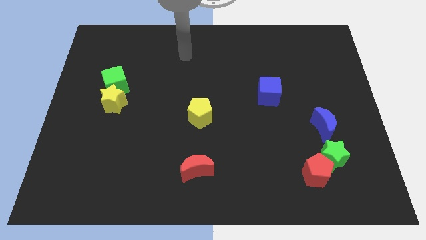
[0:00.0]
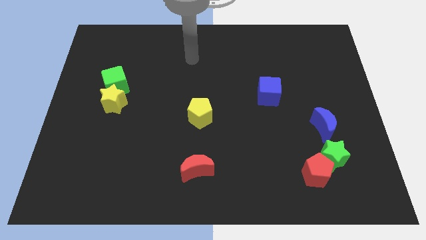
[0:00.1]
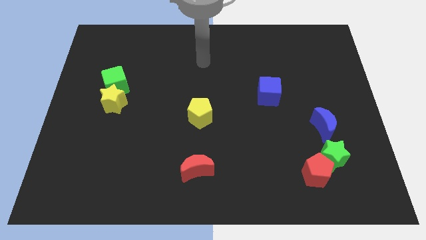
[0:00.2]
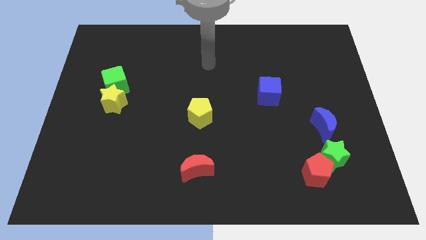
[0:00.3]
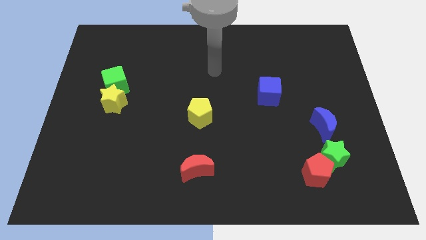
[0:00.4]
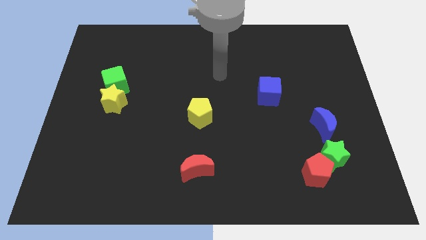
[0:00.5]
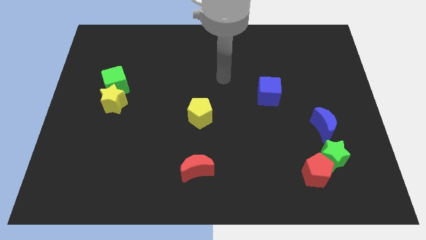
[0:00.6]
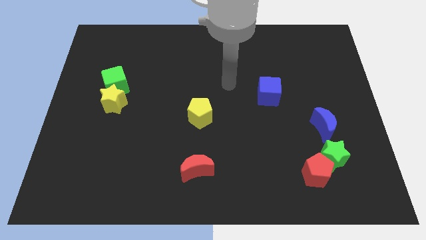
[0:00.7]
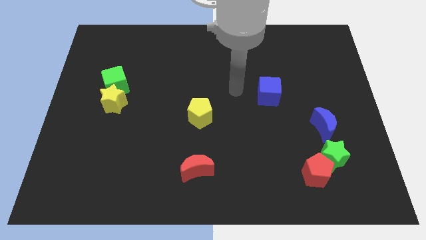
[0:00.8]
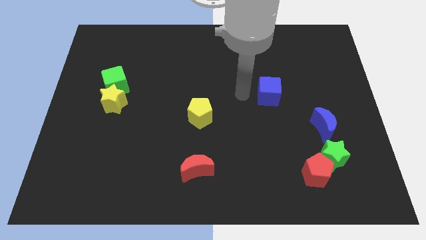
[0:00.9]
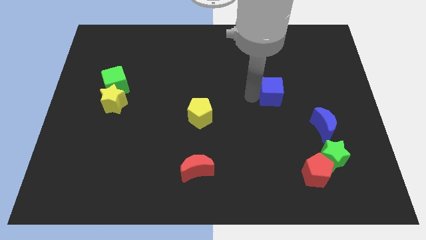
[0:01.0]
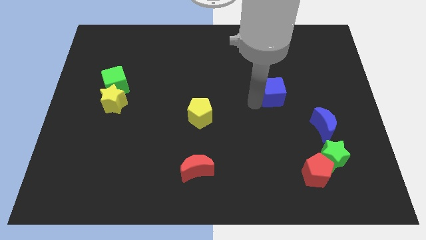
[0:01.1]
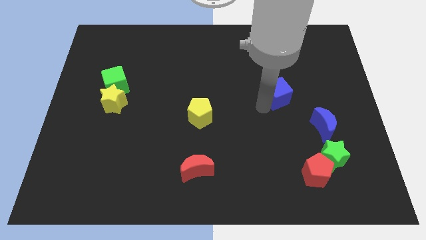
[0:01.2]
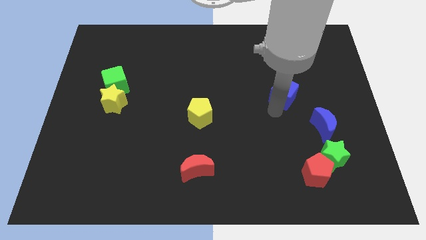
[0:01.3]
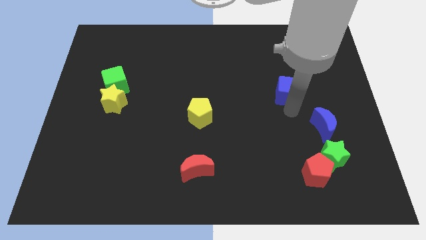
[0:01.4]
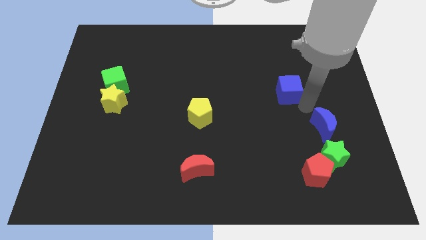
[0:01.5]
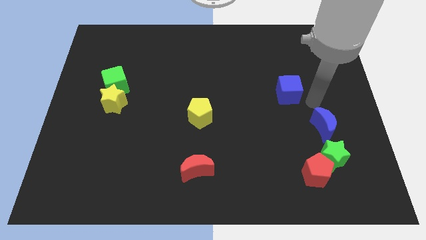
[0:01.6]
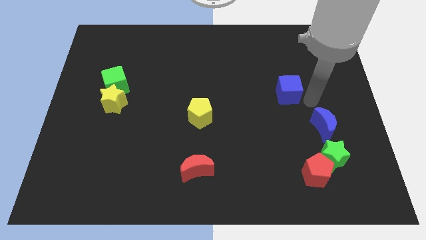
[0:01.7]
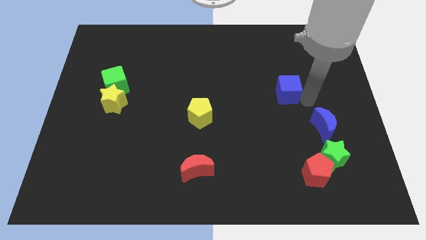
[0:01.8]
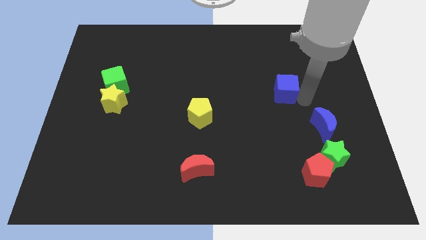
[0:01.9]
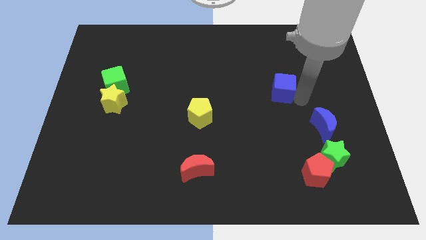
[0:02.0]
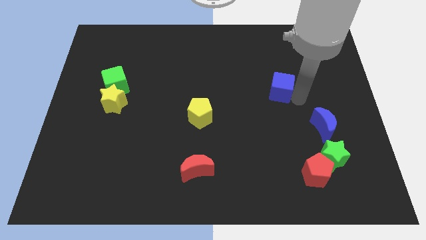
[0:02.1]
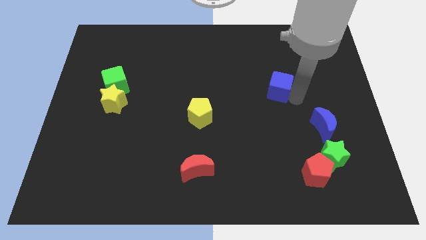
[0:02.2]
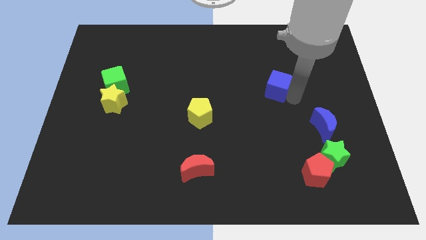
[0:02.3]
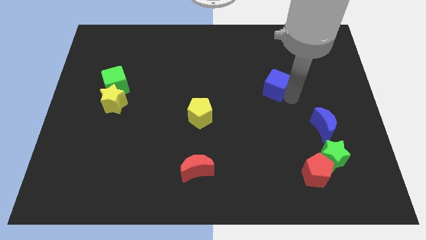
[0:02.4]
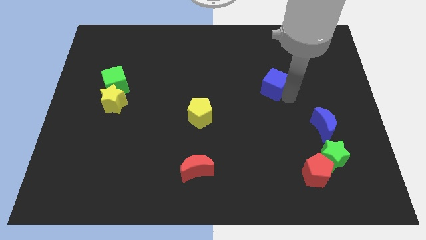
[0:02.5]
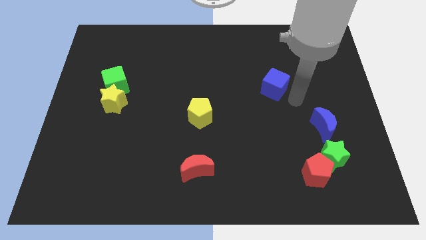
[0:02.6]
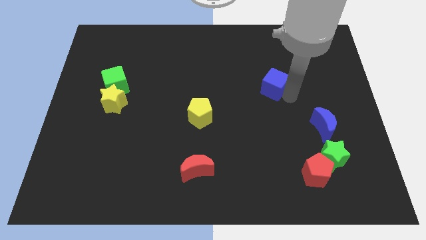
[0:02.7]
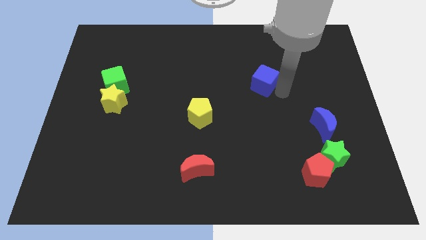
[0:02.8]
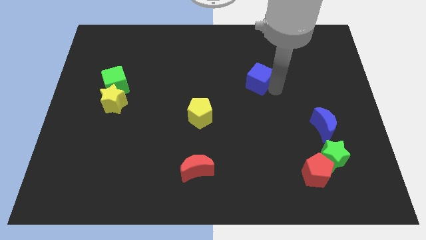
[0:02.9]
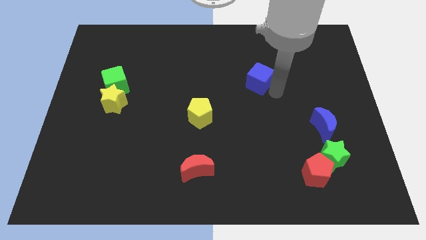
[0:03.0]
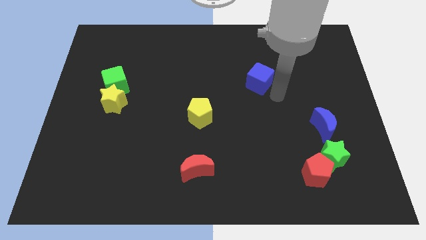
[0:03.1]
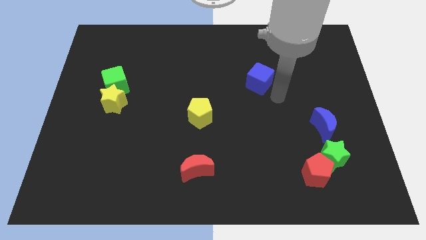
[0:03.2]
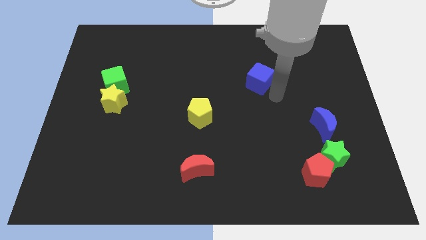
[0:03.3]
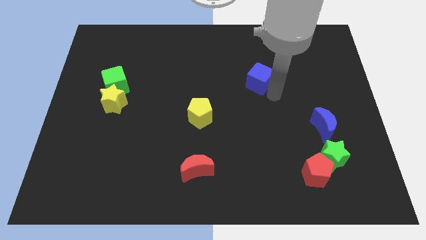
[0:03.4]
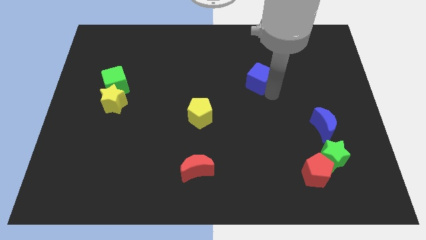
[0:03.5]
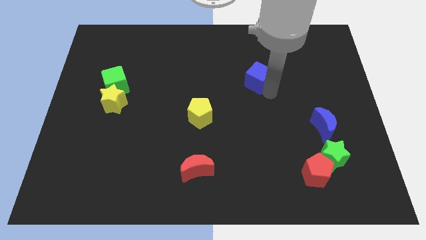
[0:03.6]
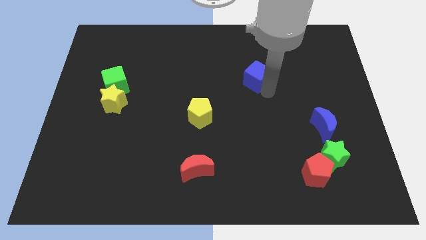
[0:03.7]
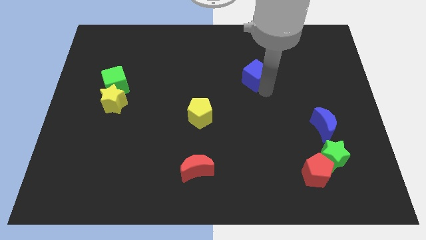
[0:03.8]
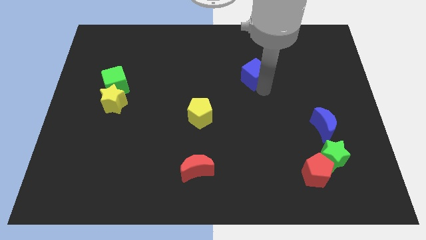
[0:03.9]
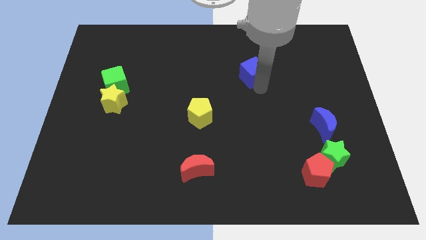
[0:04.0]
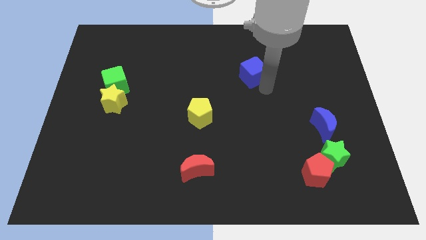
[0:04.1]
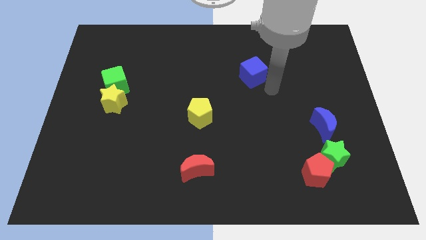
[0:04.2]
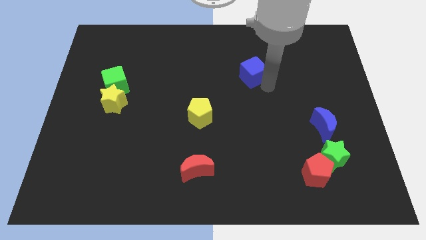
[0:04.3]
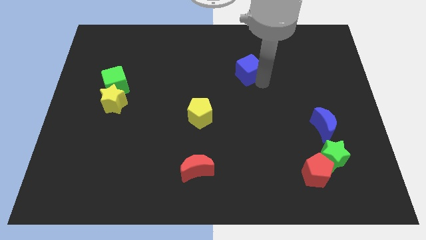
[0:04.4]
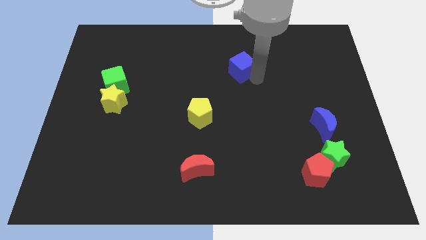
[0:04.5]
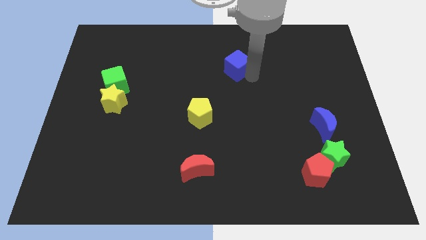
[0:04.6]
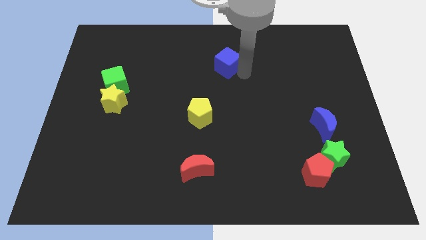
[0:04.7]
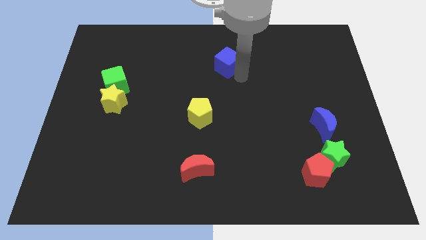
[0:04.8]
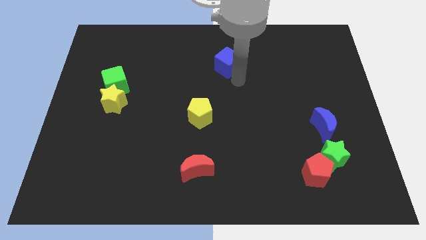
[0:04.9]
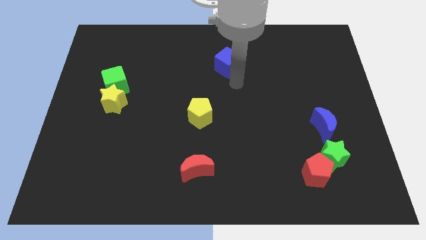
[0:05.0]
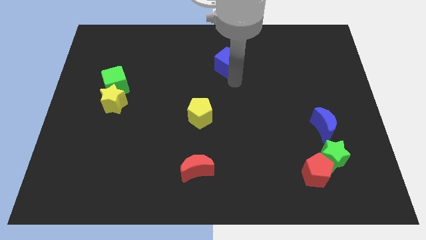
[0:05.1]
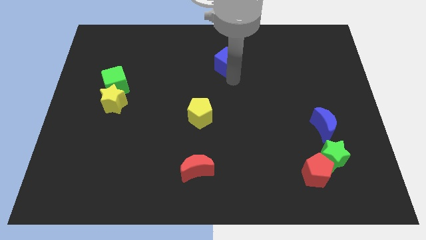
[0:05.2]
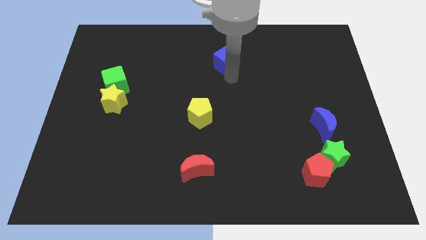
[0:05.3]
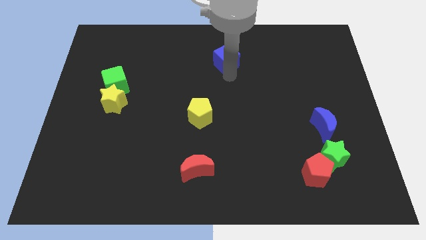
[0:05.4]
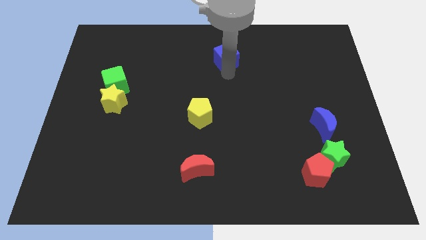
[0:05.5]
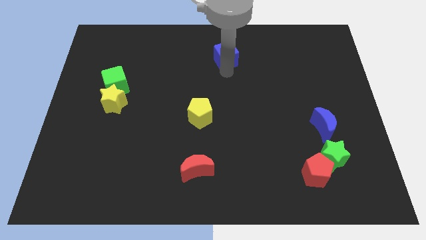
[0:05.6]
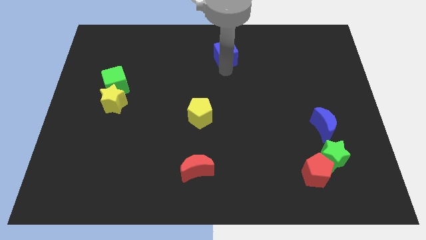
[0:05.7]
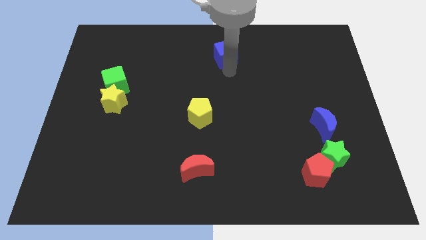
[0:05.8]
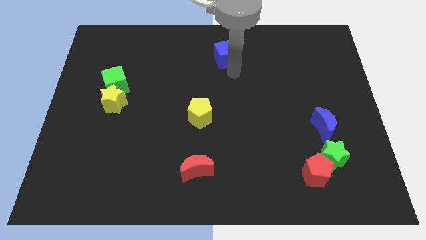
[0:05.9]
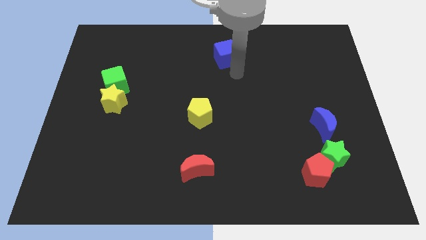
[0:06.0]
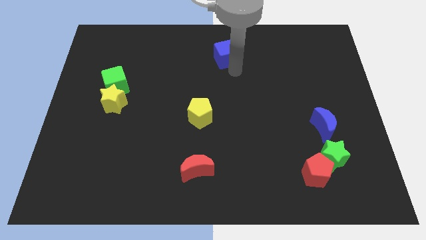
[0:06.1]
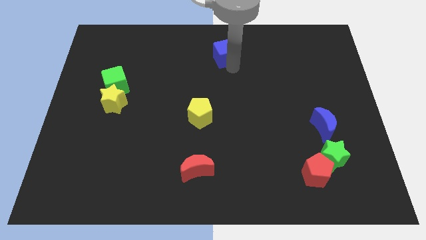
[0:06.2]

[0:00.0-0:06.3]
slide the blue cube to the top side
